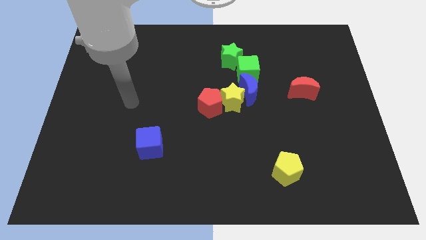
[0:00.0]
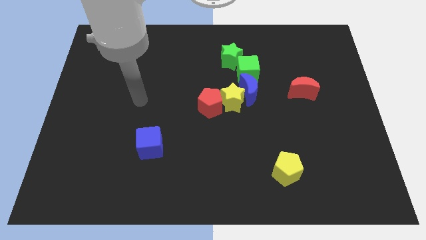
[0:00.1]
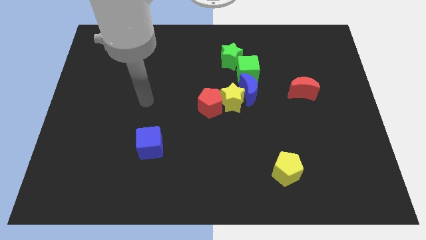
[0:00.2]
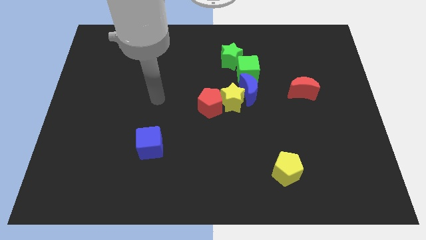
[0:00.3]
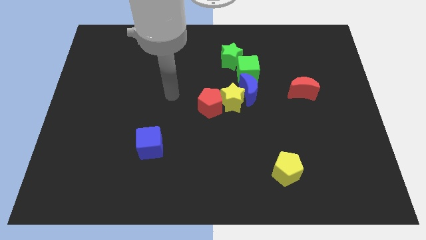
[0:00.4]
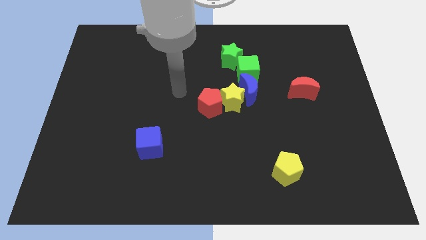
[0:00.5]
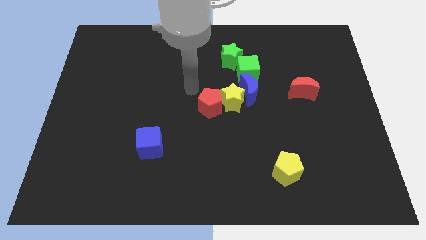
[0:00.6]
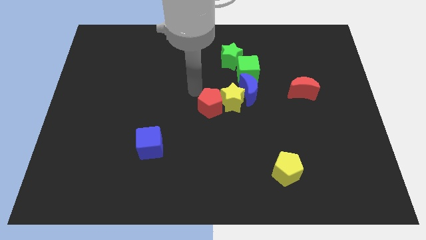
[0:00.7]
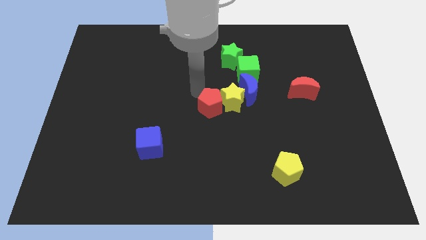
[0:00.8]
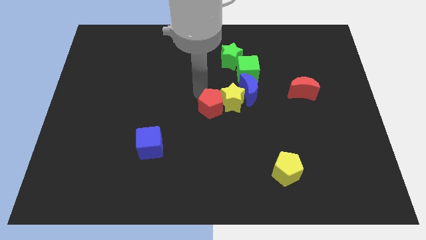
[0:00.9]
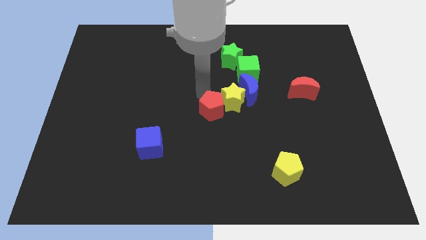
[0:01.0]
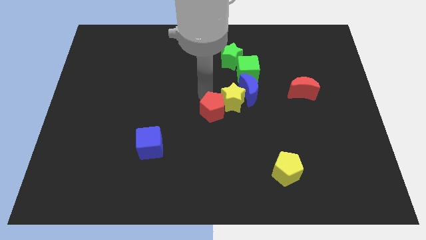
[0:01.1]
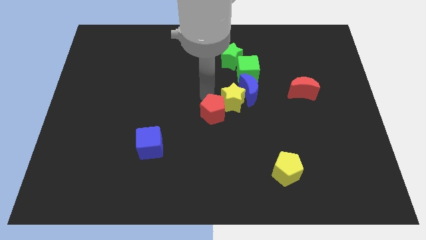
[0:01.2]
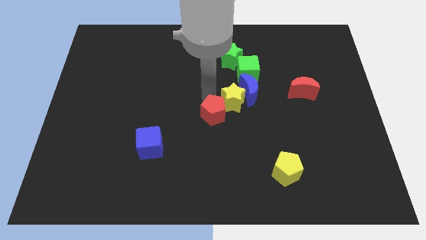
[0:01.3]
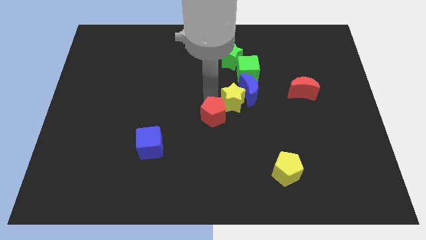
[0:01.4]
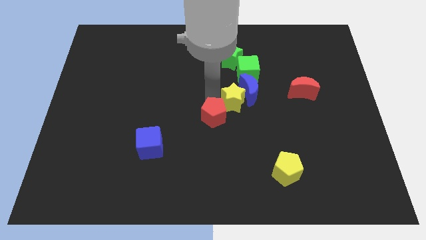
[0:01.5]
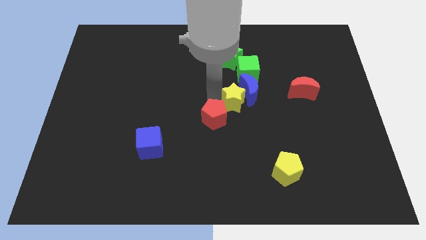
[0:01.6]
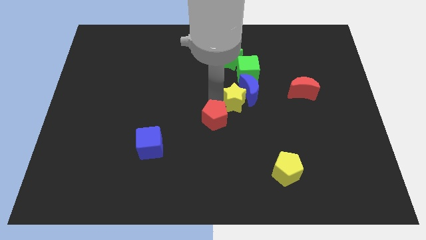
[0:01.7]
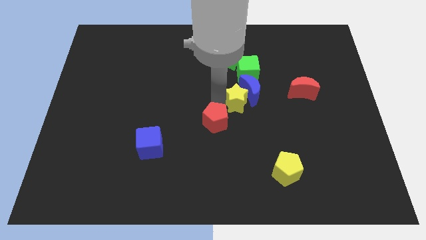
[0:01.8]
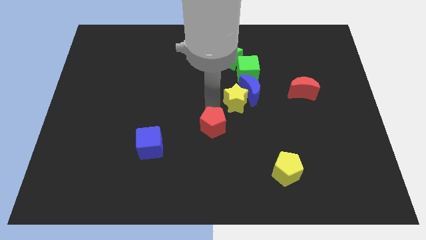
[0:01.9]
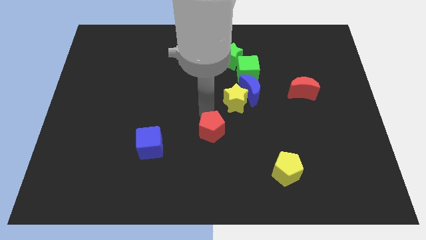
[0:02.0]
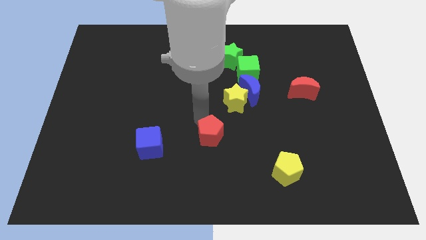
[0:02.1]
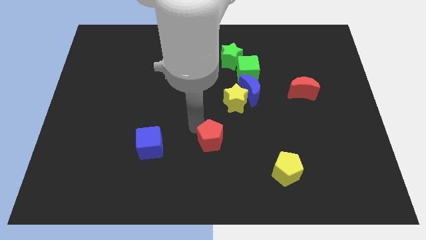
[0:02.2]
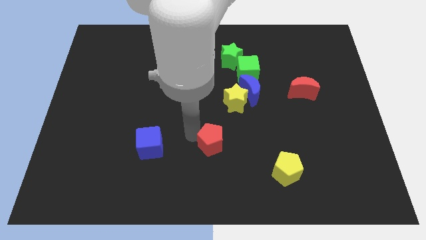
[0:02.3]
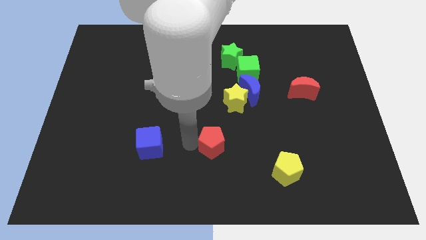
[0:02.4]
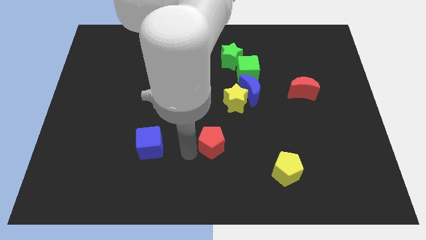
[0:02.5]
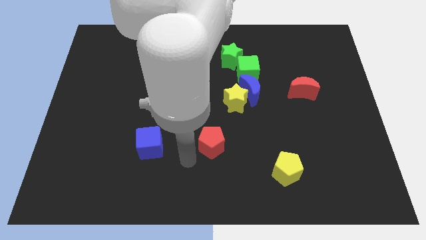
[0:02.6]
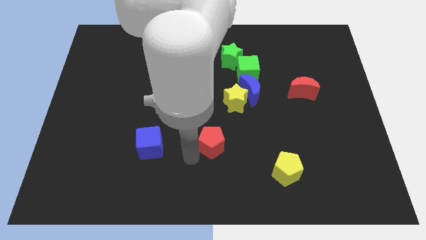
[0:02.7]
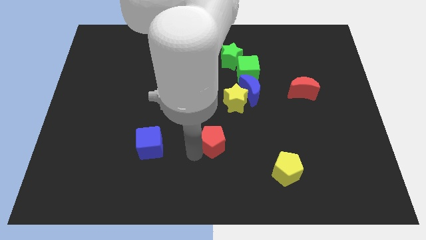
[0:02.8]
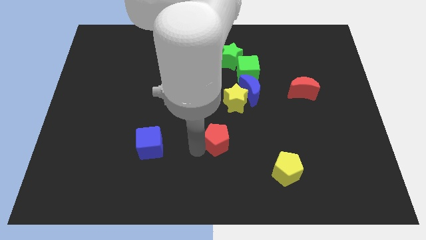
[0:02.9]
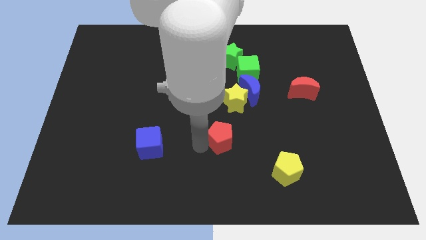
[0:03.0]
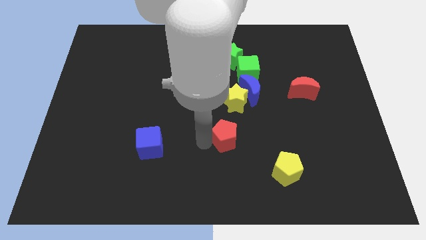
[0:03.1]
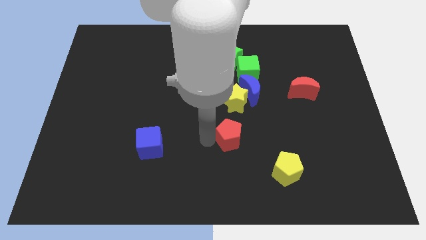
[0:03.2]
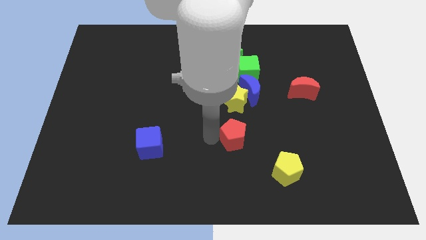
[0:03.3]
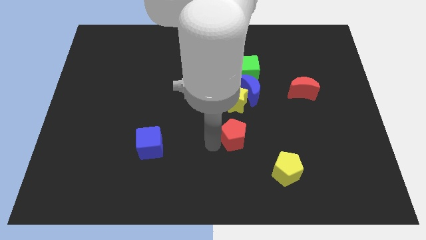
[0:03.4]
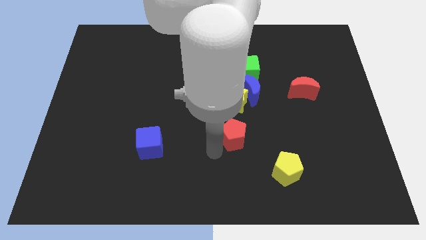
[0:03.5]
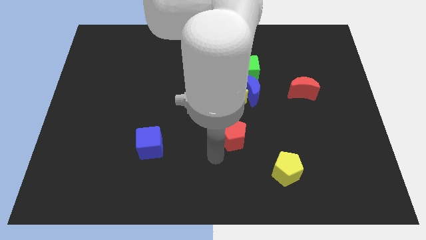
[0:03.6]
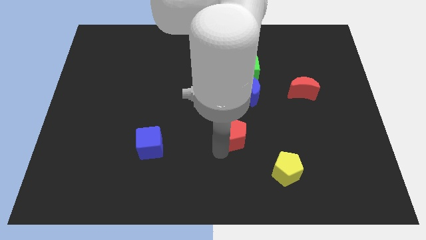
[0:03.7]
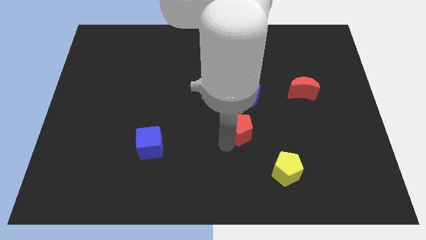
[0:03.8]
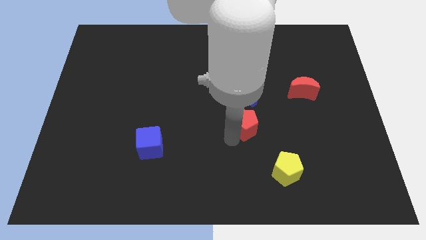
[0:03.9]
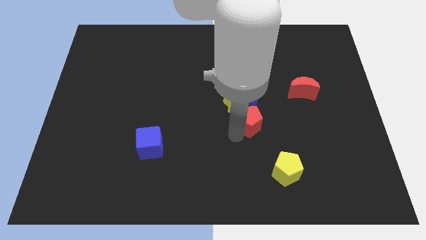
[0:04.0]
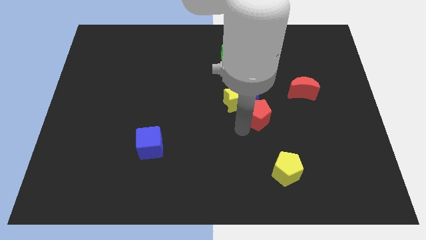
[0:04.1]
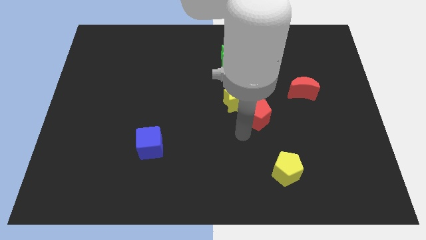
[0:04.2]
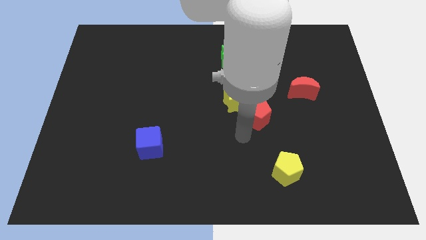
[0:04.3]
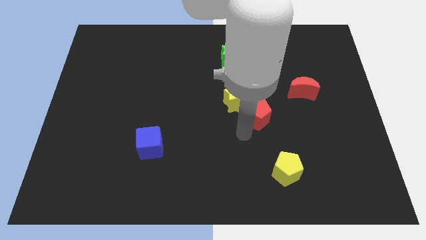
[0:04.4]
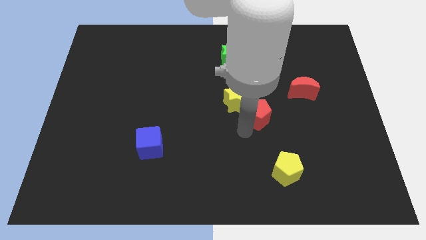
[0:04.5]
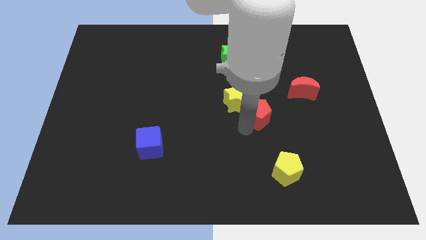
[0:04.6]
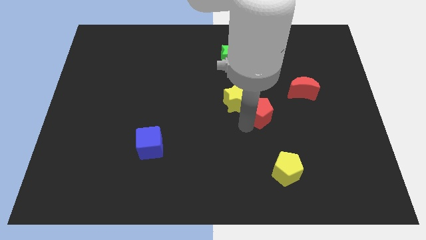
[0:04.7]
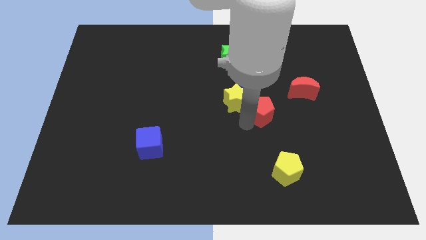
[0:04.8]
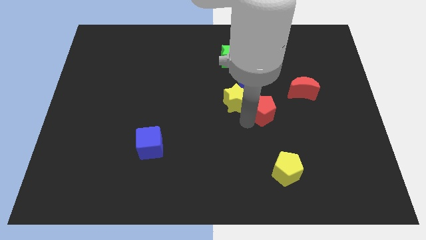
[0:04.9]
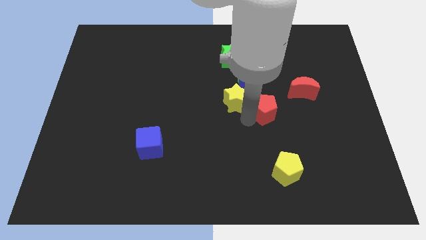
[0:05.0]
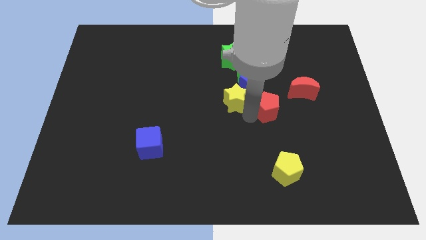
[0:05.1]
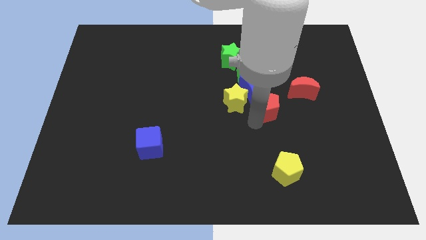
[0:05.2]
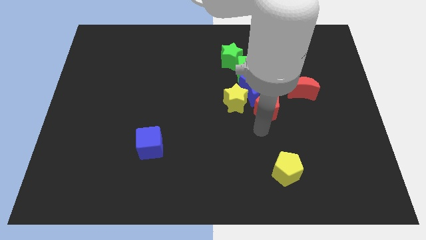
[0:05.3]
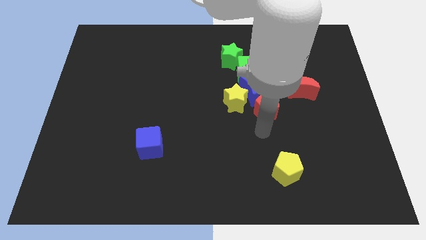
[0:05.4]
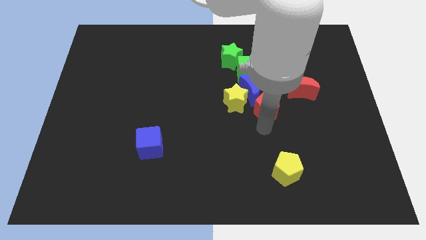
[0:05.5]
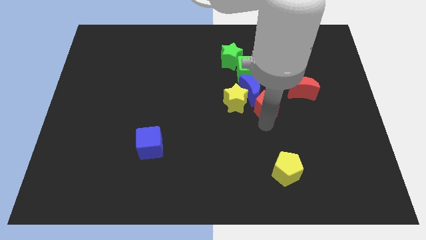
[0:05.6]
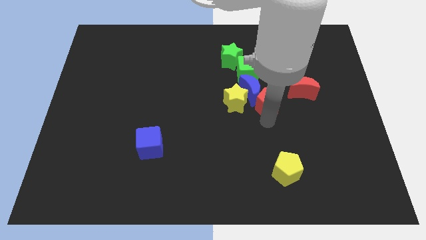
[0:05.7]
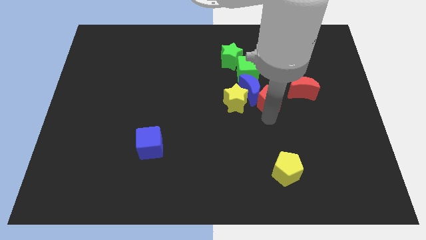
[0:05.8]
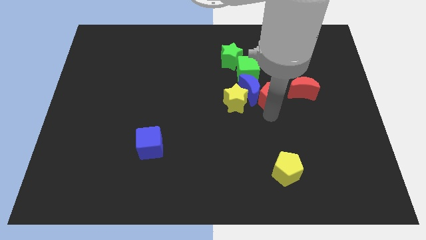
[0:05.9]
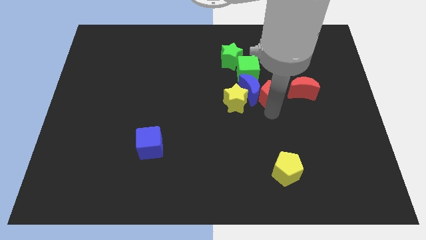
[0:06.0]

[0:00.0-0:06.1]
slide the red pentagon to the top right of the blue moon

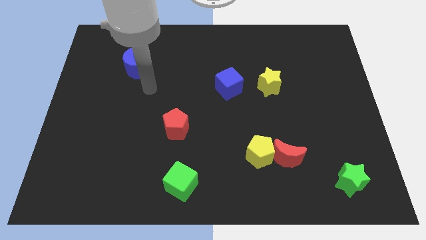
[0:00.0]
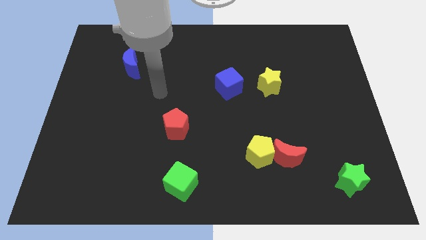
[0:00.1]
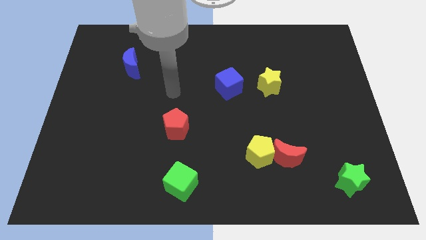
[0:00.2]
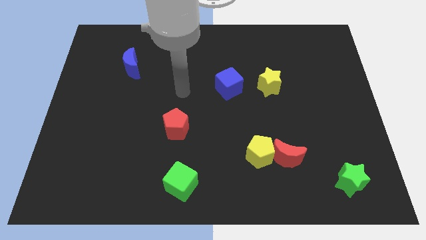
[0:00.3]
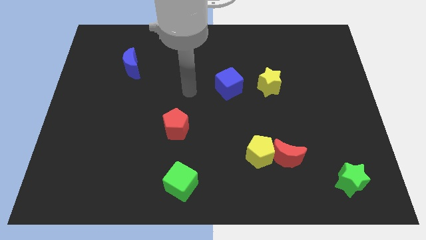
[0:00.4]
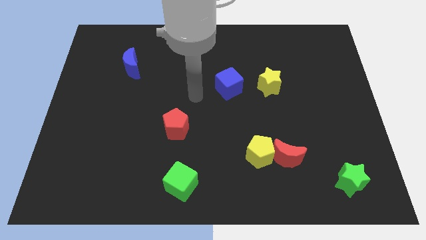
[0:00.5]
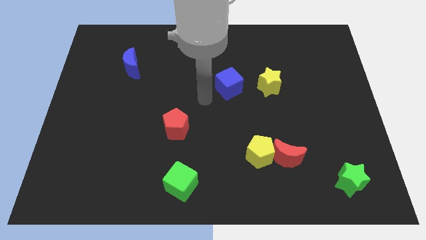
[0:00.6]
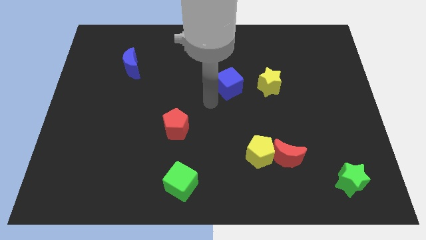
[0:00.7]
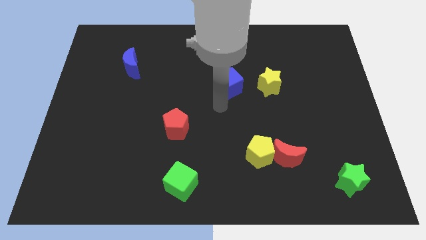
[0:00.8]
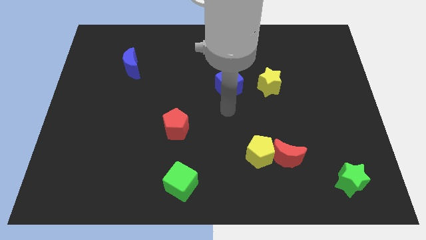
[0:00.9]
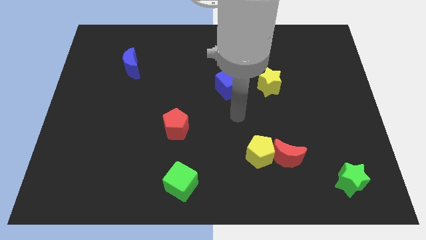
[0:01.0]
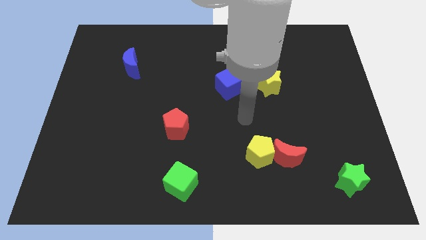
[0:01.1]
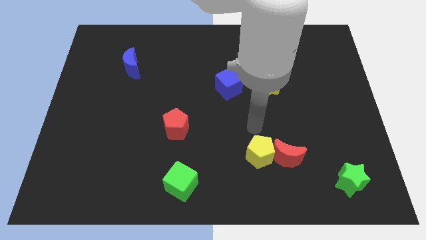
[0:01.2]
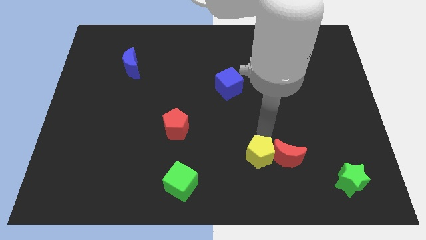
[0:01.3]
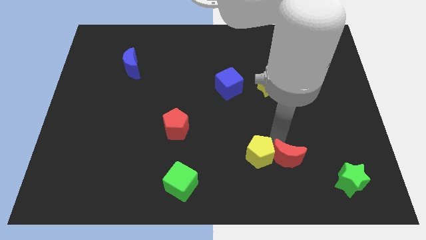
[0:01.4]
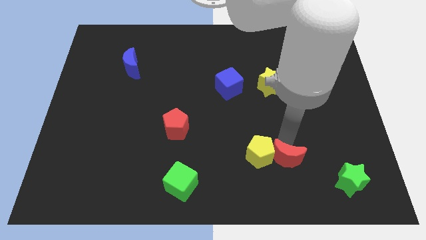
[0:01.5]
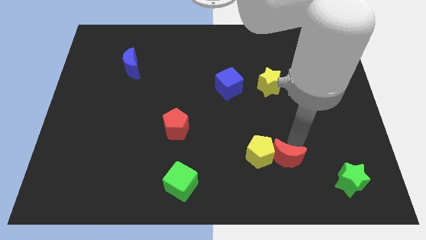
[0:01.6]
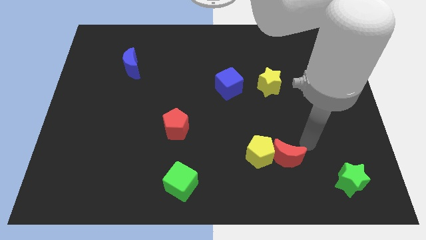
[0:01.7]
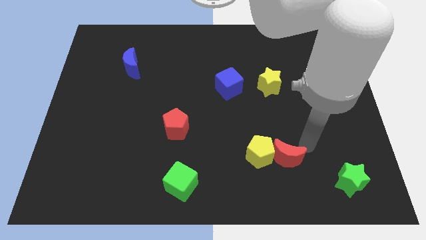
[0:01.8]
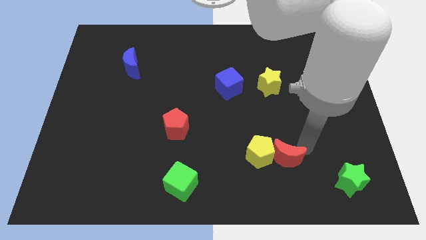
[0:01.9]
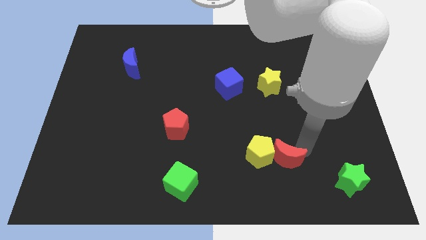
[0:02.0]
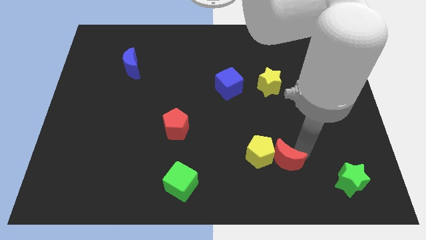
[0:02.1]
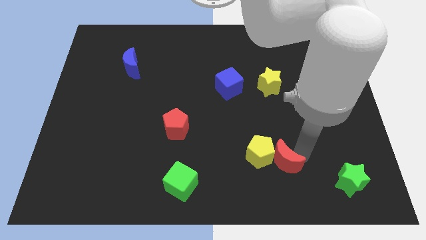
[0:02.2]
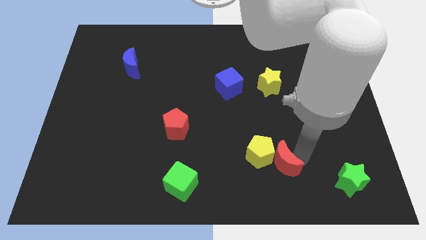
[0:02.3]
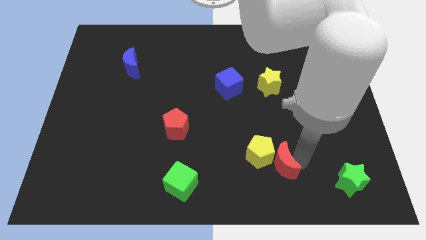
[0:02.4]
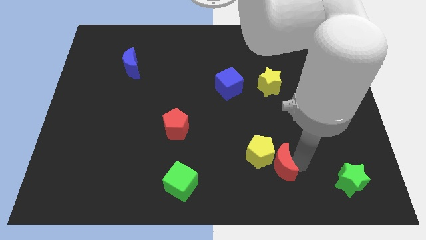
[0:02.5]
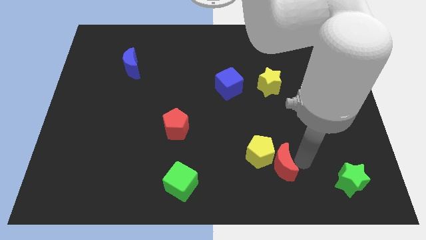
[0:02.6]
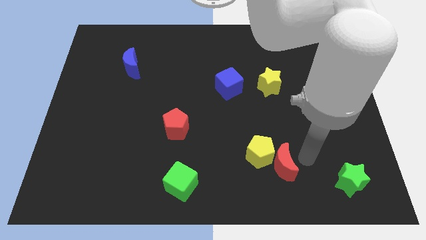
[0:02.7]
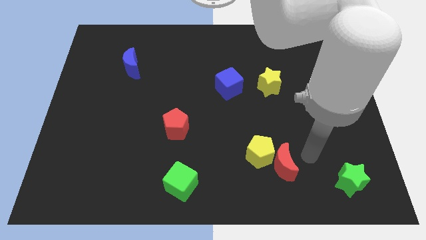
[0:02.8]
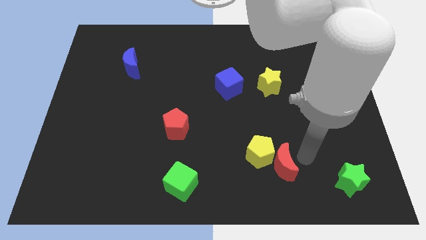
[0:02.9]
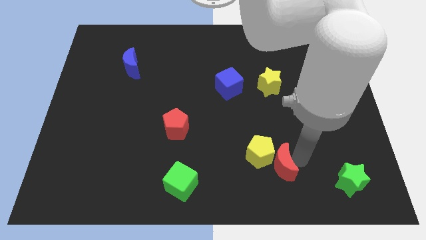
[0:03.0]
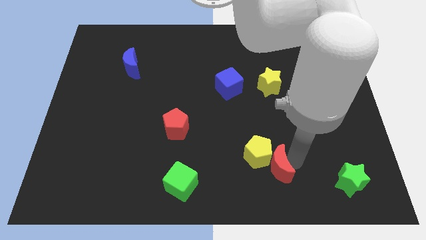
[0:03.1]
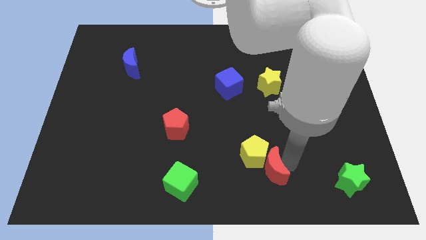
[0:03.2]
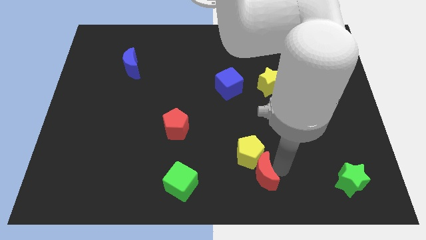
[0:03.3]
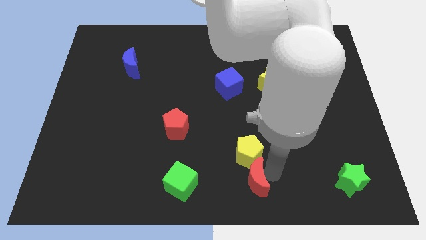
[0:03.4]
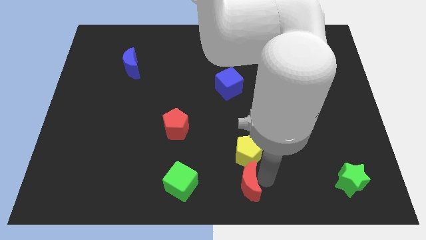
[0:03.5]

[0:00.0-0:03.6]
slide the red moon to the bottom left side of the yellow pentagon
